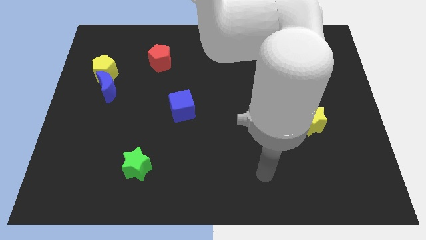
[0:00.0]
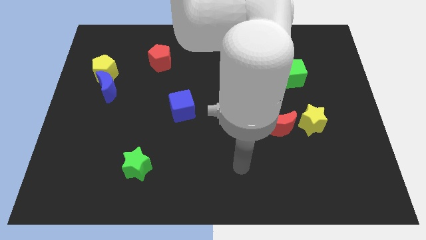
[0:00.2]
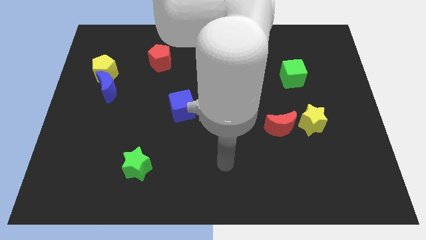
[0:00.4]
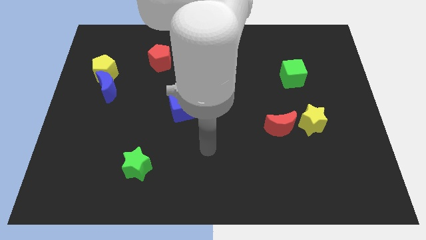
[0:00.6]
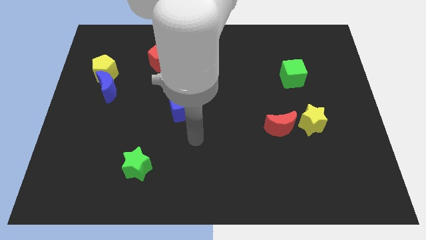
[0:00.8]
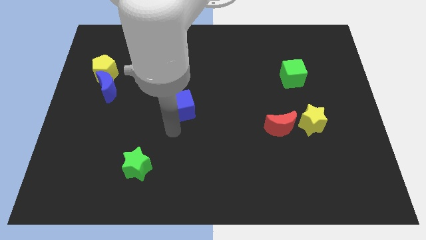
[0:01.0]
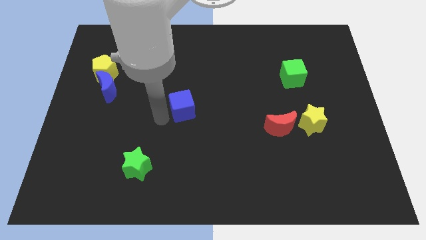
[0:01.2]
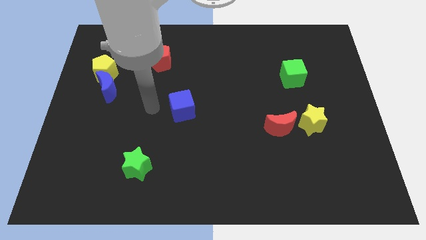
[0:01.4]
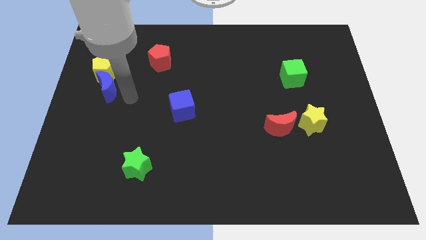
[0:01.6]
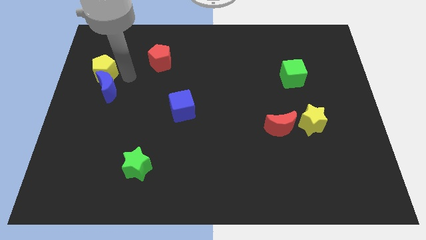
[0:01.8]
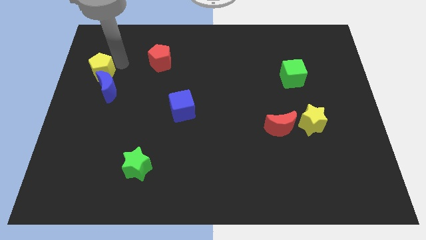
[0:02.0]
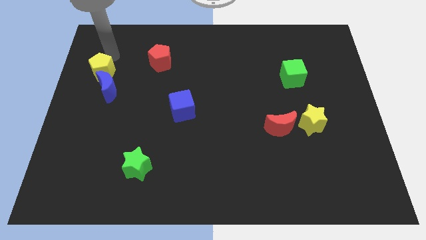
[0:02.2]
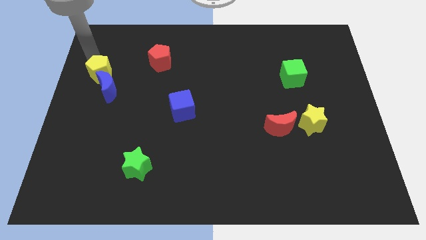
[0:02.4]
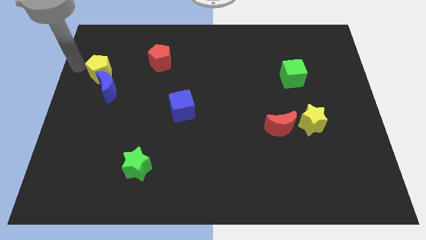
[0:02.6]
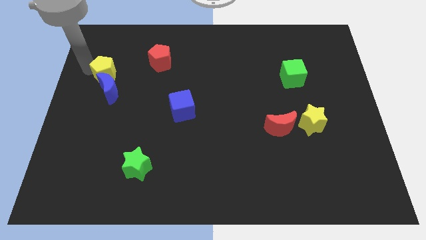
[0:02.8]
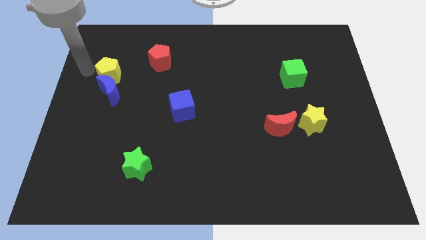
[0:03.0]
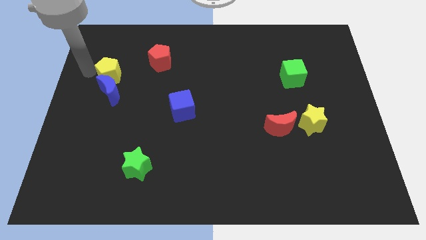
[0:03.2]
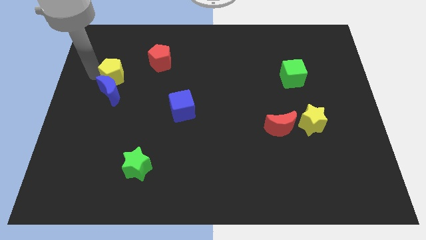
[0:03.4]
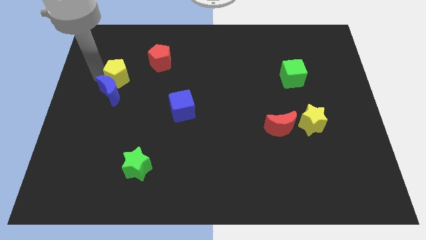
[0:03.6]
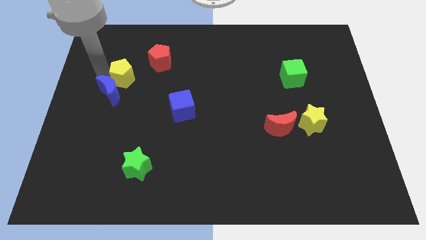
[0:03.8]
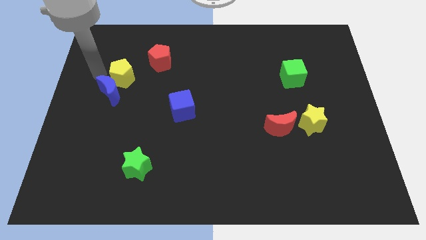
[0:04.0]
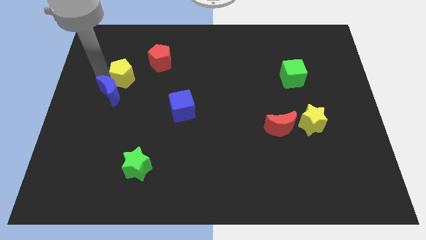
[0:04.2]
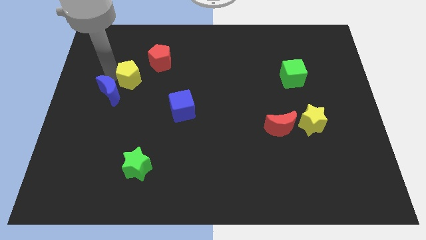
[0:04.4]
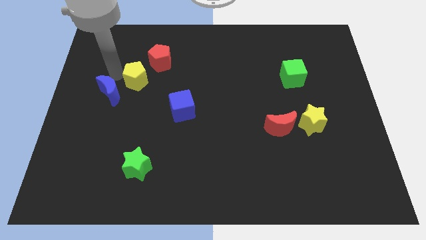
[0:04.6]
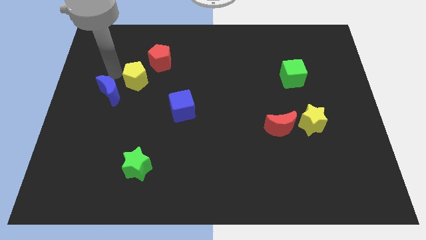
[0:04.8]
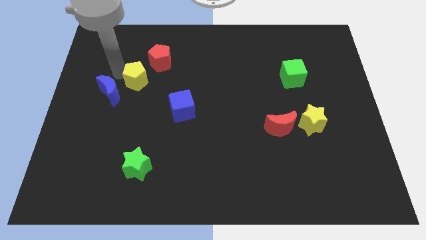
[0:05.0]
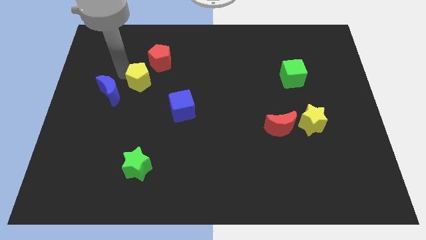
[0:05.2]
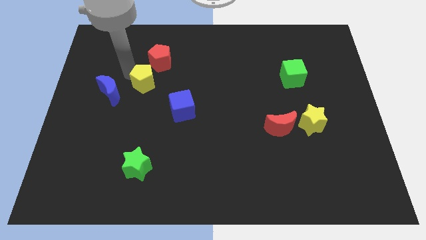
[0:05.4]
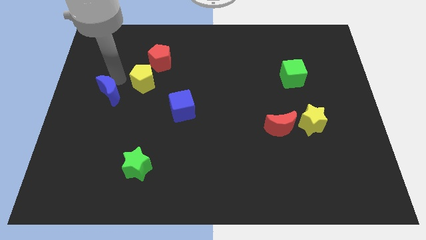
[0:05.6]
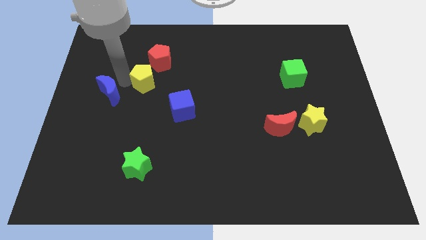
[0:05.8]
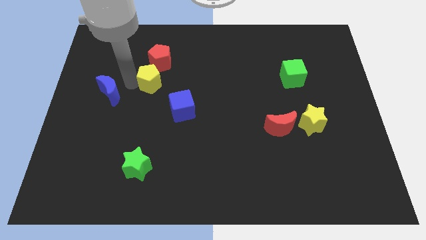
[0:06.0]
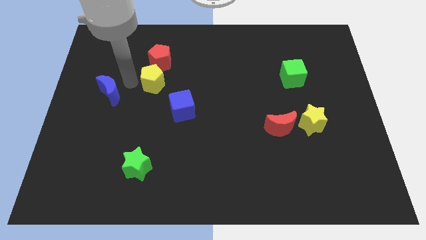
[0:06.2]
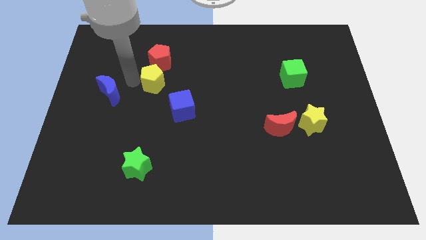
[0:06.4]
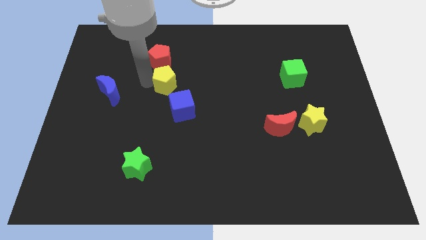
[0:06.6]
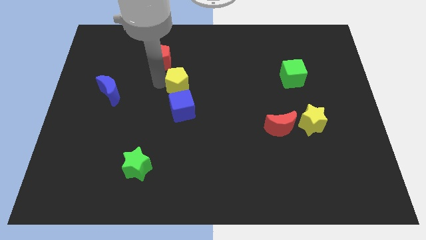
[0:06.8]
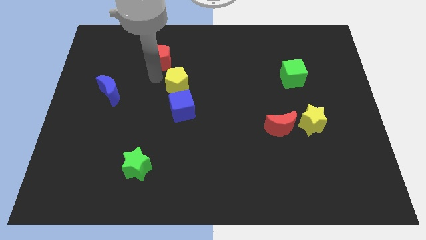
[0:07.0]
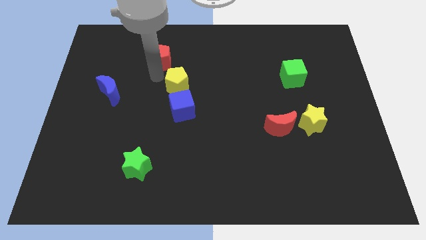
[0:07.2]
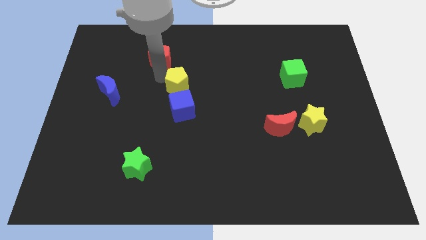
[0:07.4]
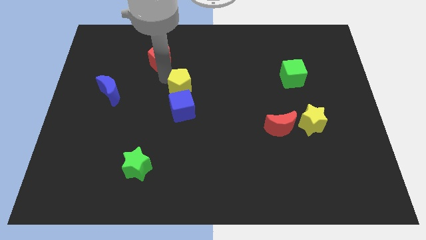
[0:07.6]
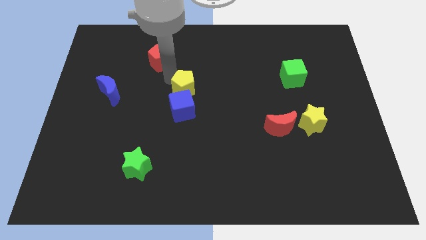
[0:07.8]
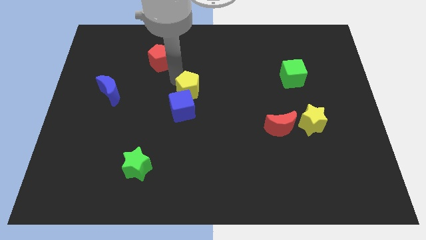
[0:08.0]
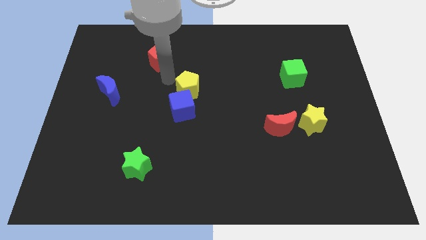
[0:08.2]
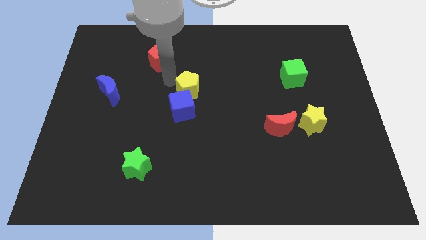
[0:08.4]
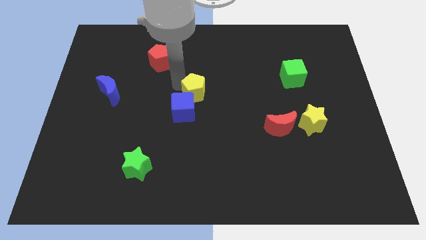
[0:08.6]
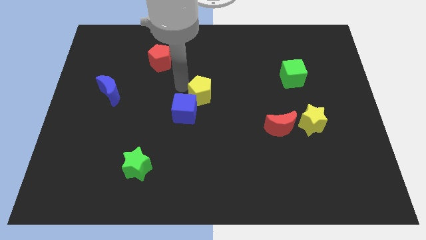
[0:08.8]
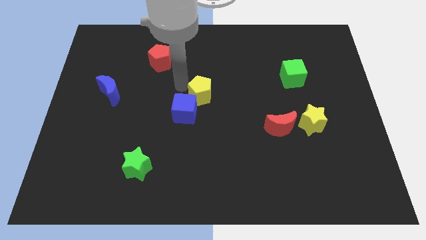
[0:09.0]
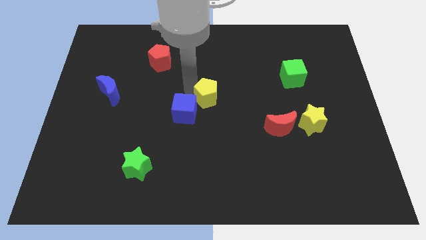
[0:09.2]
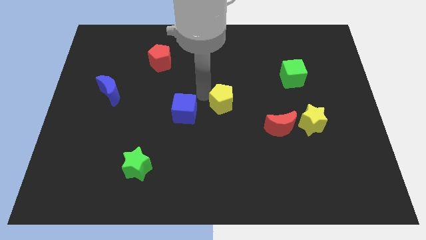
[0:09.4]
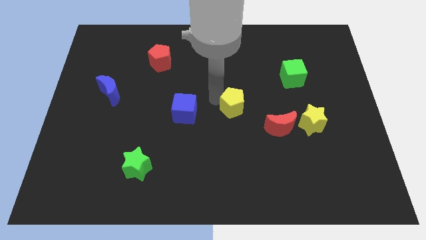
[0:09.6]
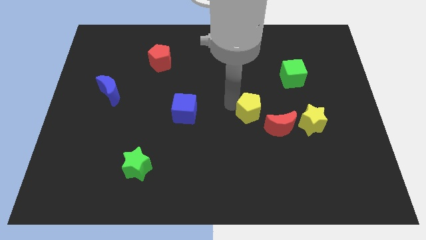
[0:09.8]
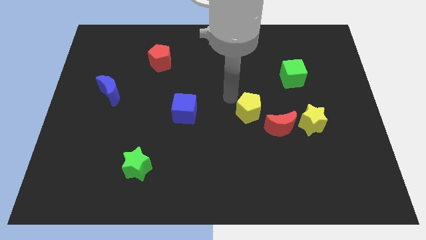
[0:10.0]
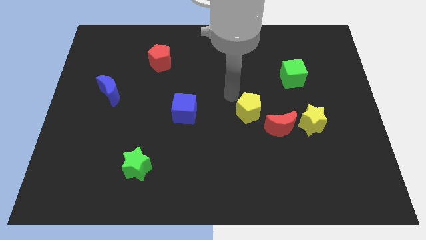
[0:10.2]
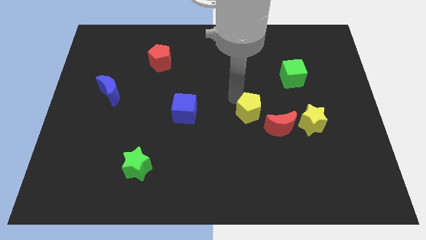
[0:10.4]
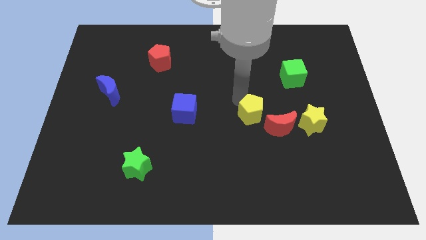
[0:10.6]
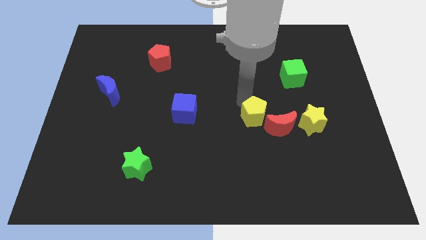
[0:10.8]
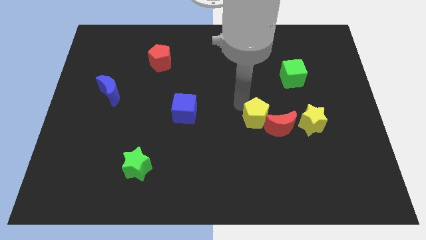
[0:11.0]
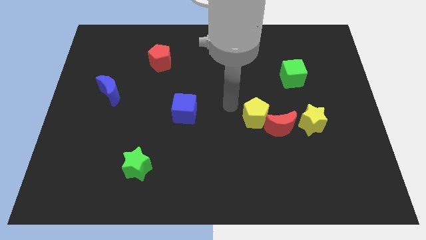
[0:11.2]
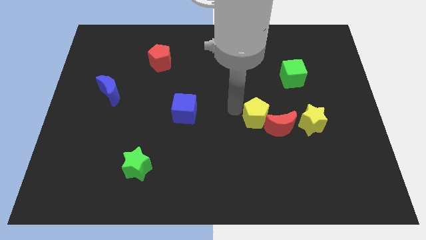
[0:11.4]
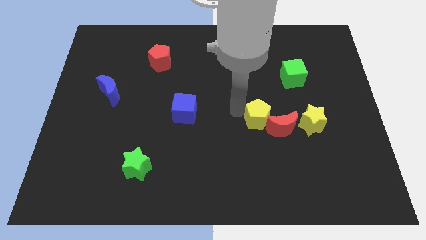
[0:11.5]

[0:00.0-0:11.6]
slide the yellow pentagon to the red moon

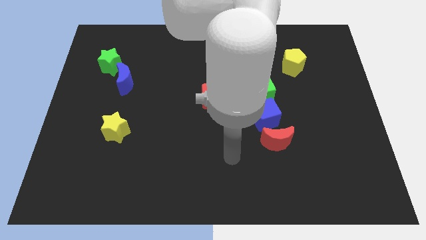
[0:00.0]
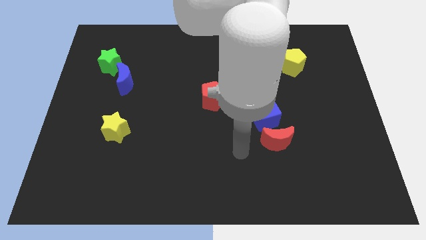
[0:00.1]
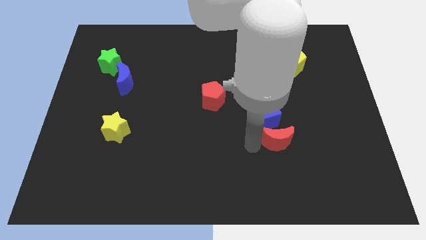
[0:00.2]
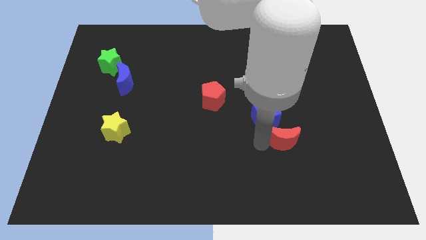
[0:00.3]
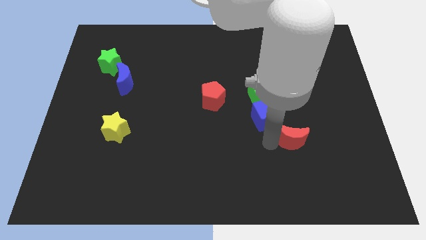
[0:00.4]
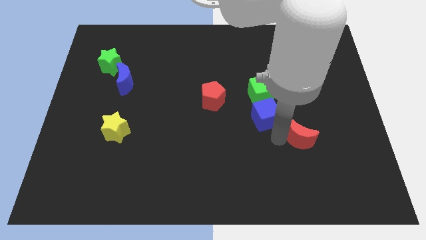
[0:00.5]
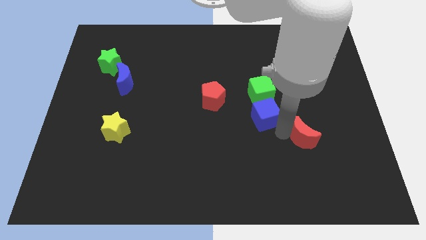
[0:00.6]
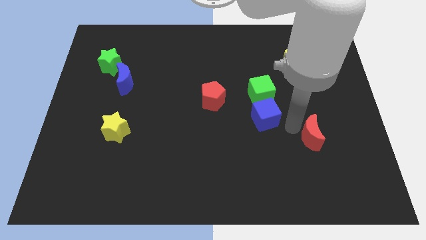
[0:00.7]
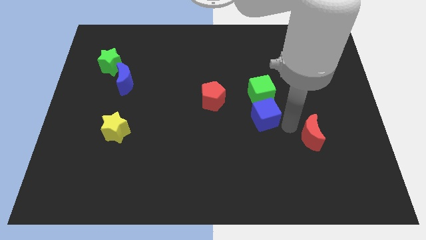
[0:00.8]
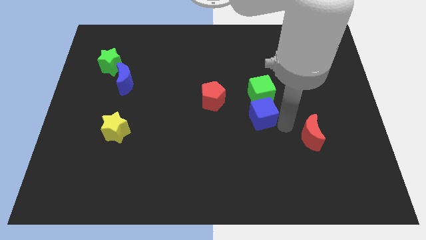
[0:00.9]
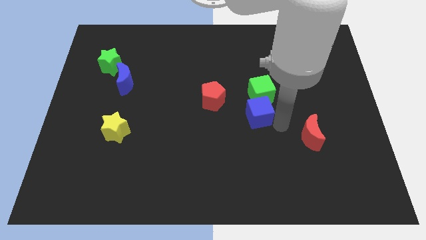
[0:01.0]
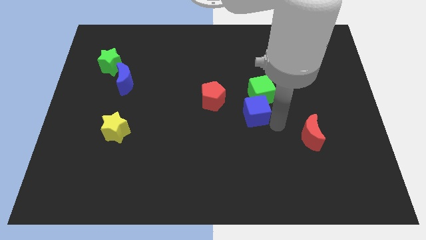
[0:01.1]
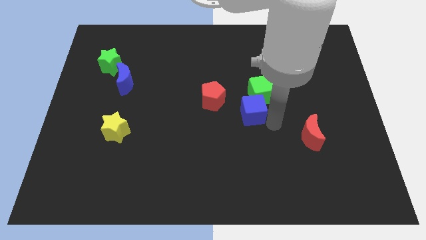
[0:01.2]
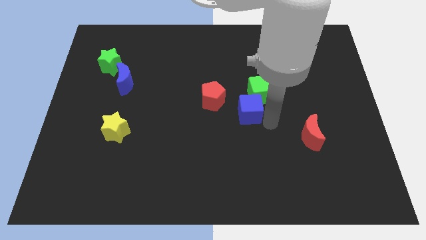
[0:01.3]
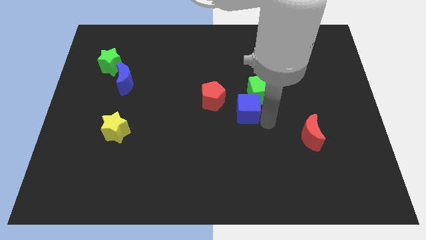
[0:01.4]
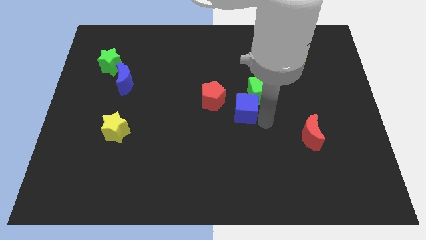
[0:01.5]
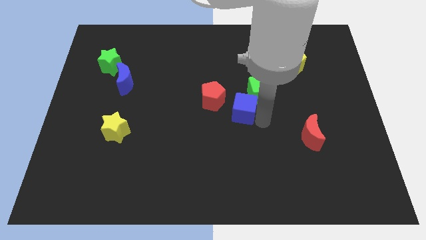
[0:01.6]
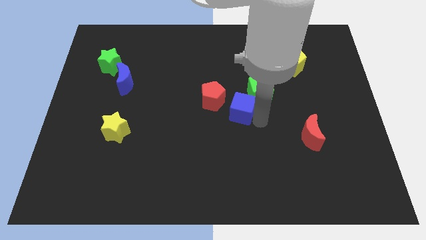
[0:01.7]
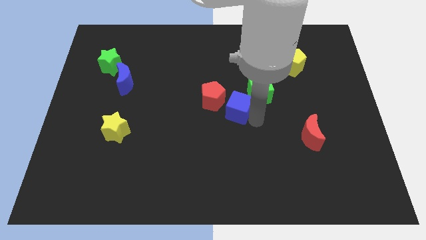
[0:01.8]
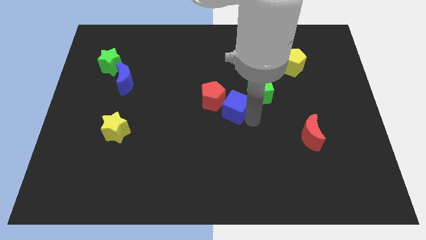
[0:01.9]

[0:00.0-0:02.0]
push the blue cube towards the red pentagon
